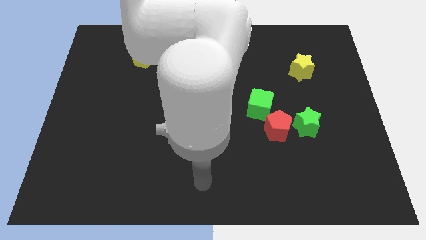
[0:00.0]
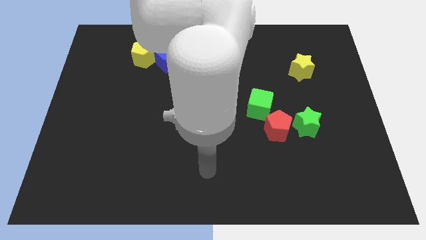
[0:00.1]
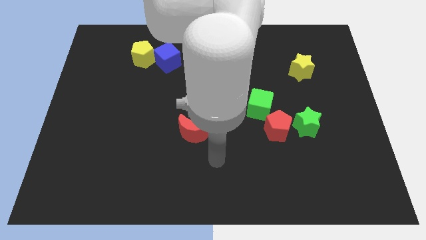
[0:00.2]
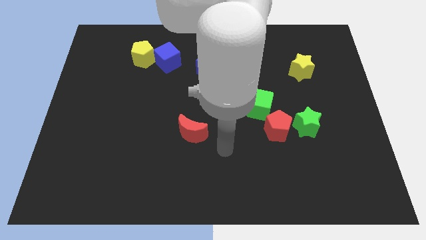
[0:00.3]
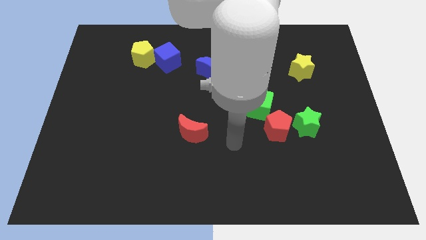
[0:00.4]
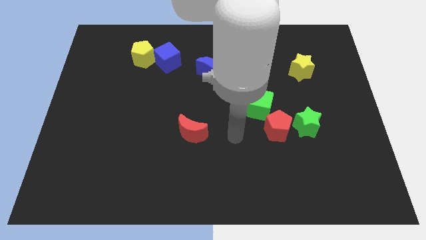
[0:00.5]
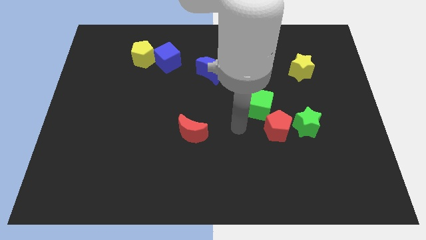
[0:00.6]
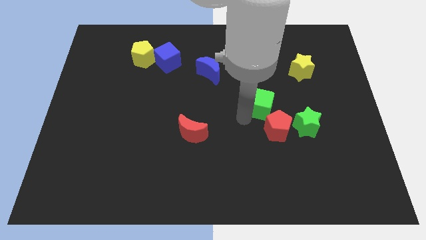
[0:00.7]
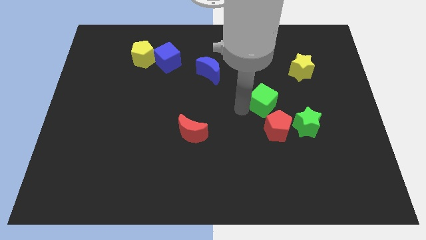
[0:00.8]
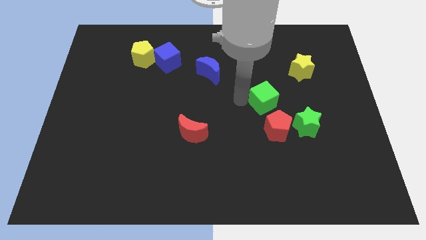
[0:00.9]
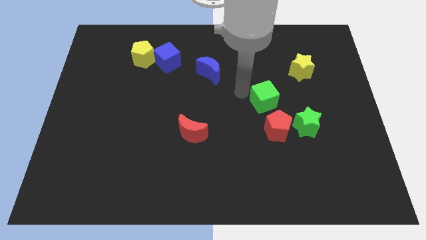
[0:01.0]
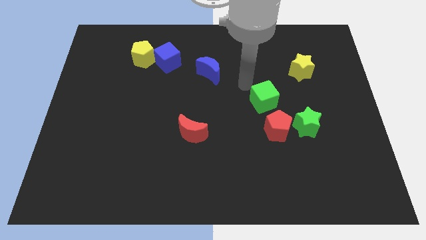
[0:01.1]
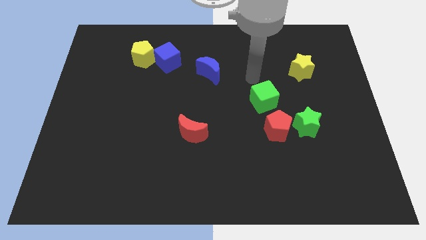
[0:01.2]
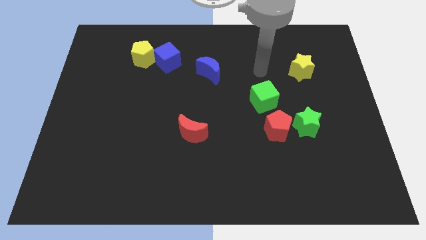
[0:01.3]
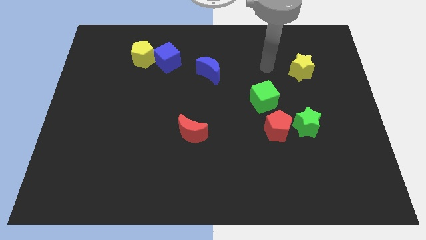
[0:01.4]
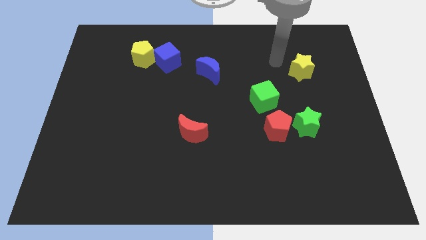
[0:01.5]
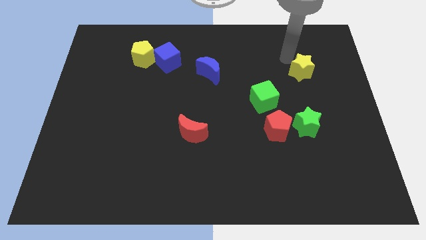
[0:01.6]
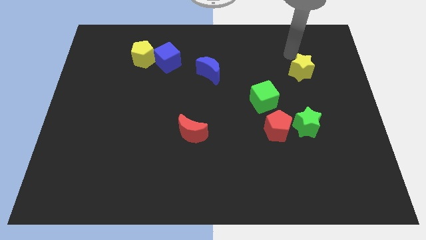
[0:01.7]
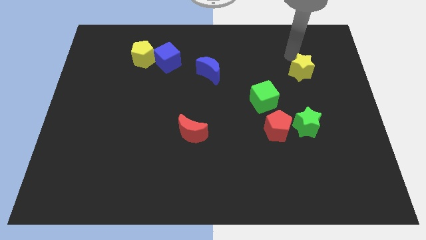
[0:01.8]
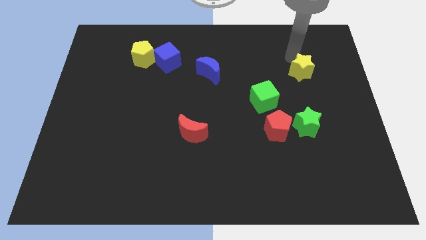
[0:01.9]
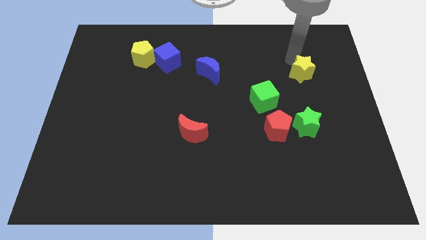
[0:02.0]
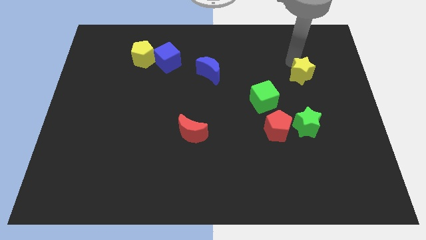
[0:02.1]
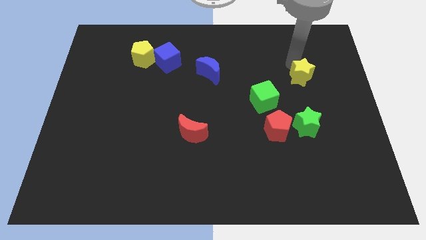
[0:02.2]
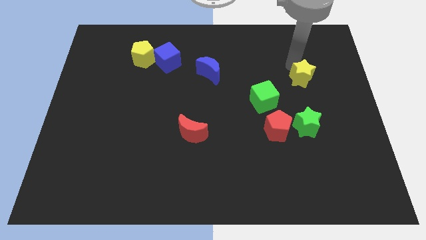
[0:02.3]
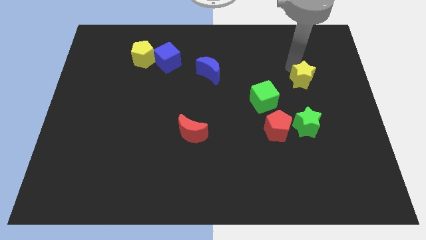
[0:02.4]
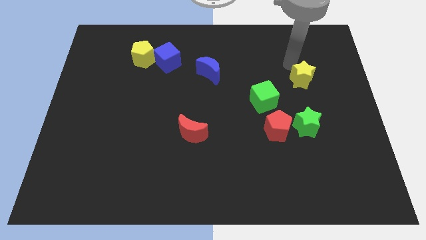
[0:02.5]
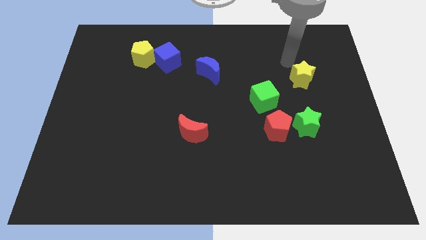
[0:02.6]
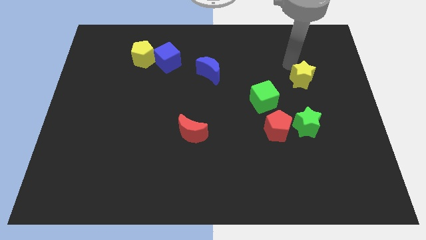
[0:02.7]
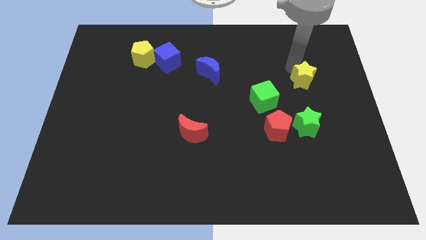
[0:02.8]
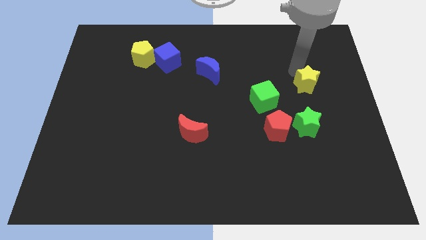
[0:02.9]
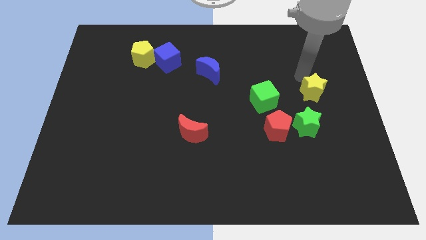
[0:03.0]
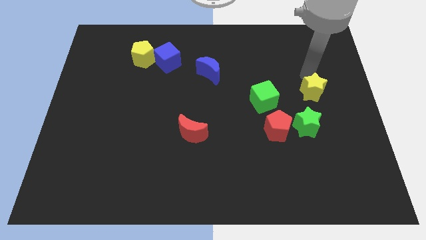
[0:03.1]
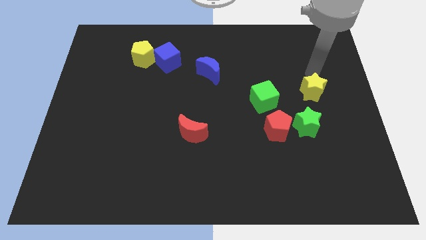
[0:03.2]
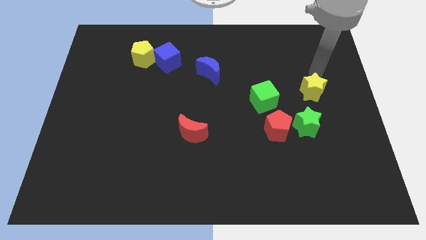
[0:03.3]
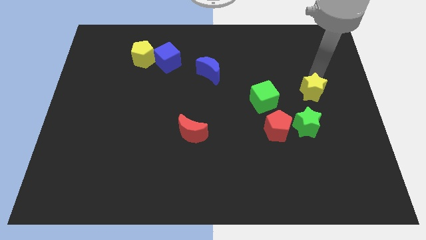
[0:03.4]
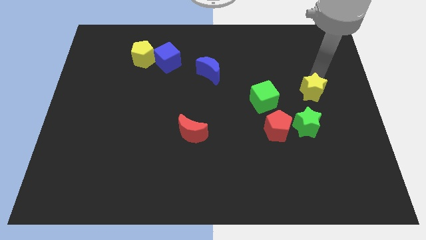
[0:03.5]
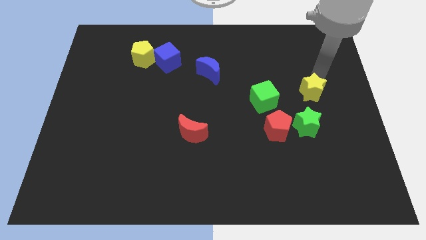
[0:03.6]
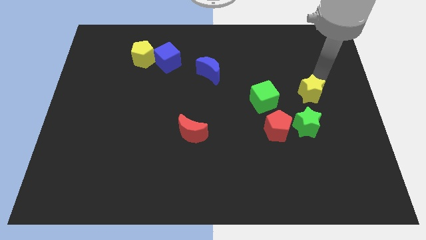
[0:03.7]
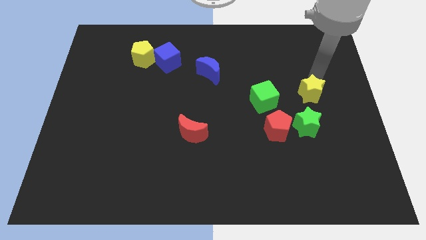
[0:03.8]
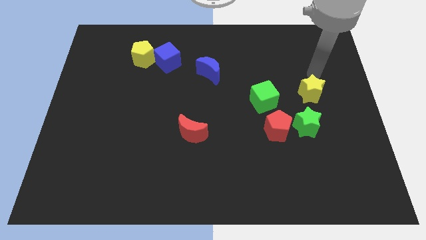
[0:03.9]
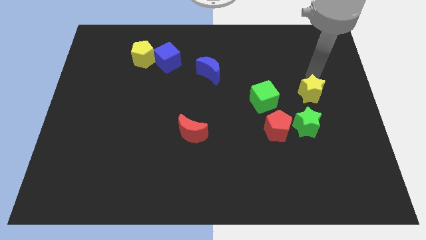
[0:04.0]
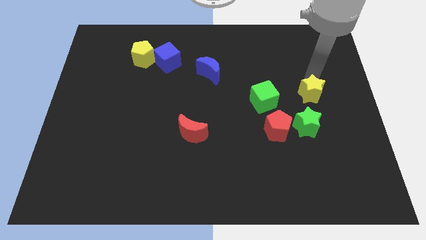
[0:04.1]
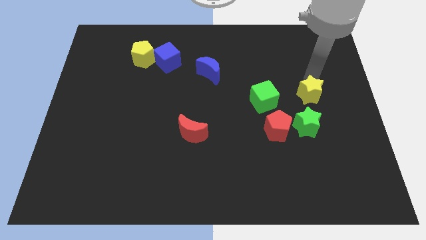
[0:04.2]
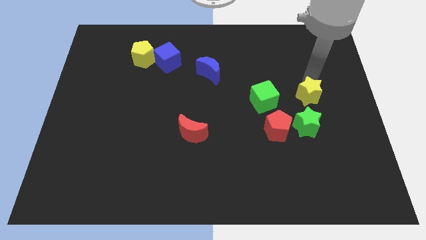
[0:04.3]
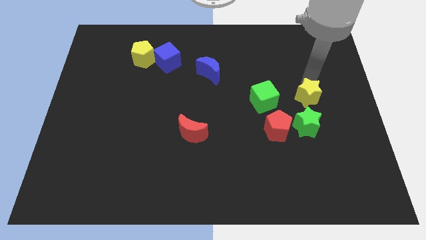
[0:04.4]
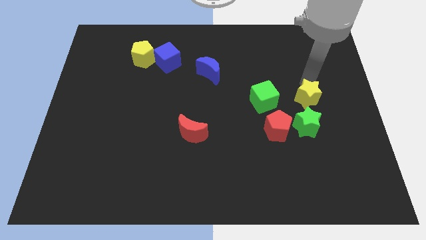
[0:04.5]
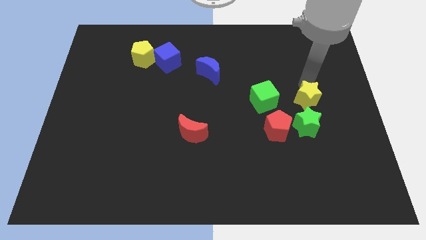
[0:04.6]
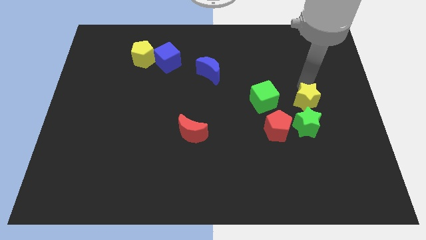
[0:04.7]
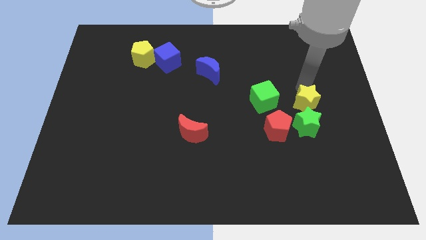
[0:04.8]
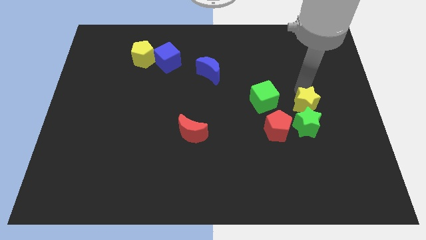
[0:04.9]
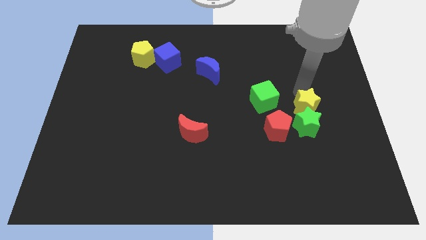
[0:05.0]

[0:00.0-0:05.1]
push the yellow star next to the green star

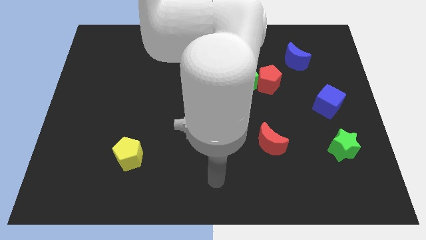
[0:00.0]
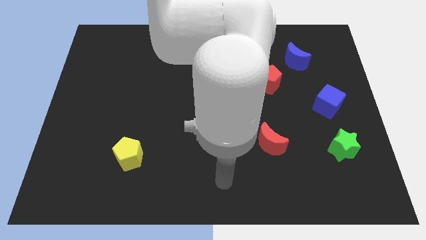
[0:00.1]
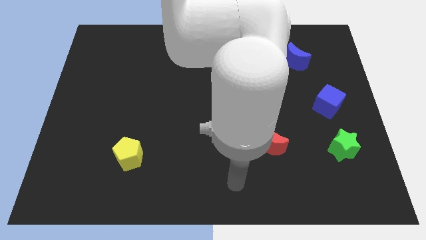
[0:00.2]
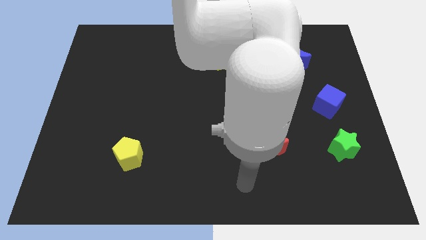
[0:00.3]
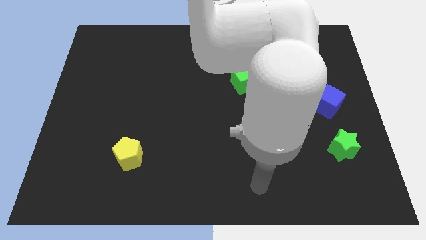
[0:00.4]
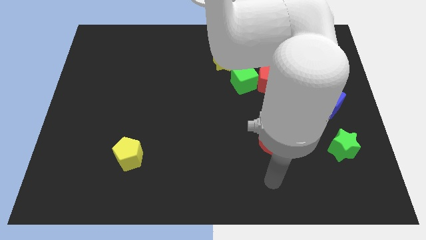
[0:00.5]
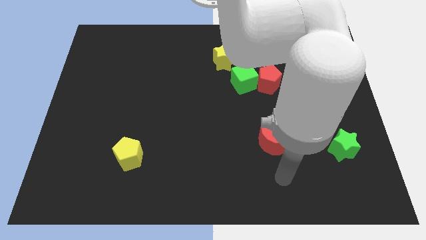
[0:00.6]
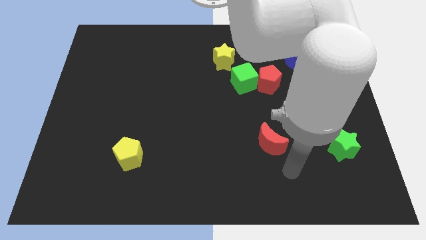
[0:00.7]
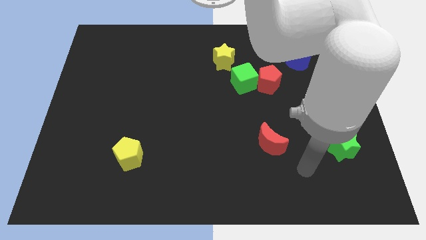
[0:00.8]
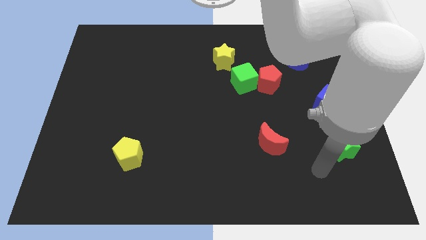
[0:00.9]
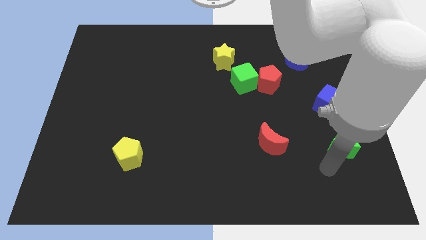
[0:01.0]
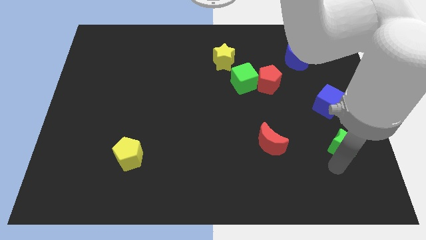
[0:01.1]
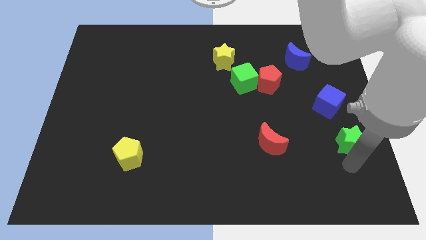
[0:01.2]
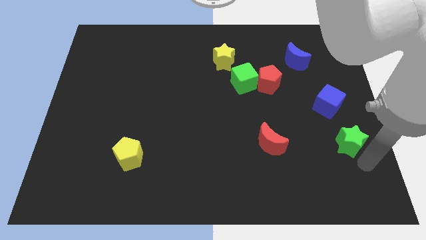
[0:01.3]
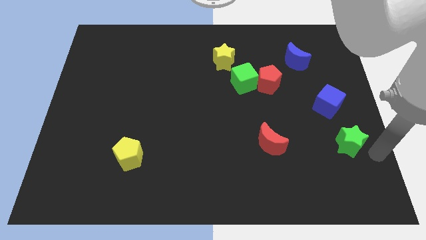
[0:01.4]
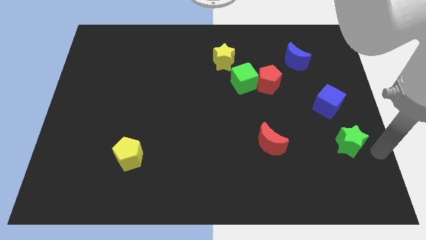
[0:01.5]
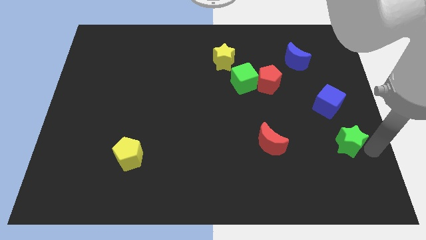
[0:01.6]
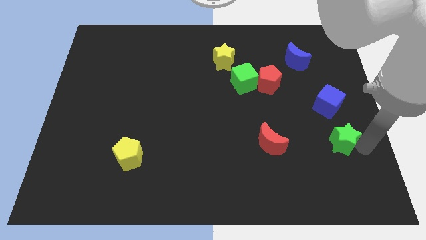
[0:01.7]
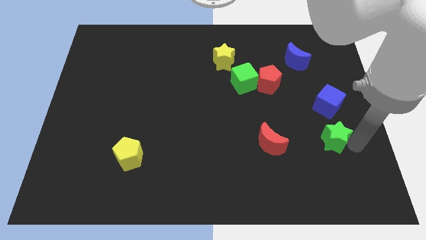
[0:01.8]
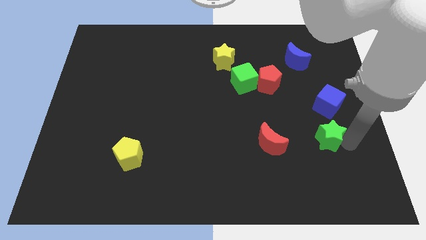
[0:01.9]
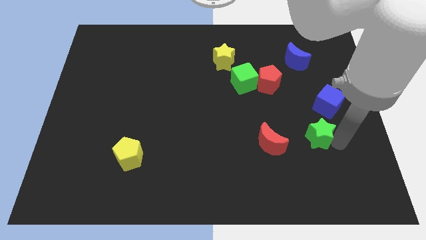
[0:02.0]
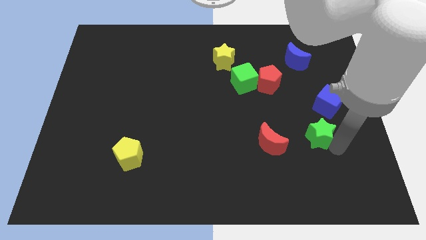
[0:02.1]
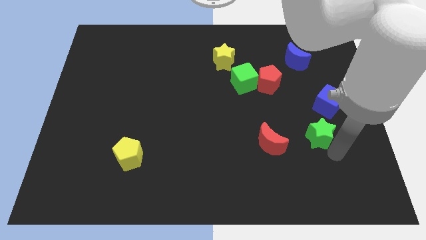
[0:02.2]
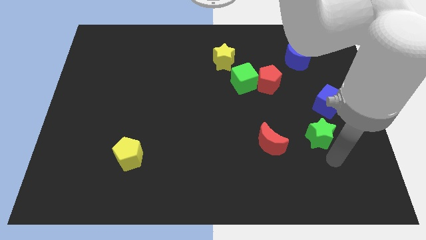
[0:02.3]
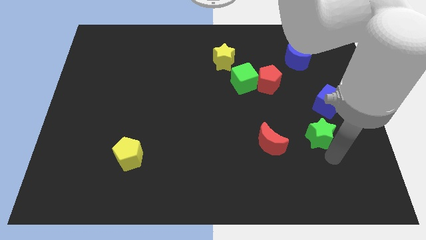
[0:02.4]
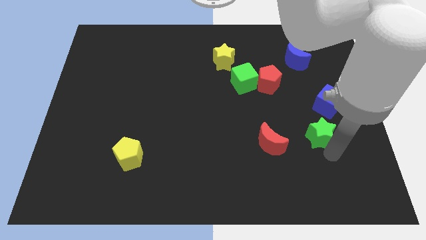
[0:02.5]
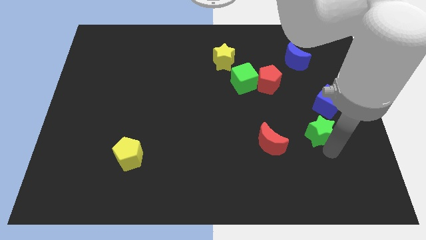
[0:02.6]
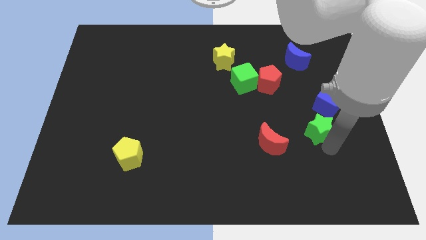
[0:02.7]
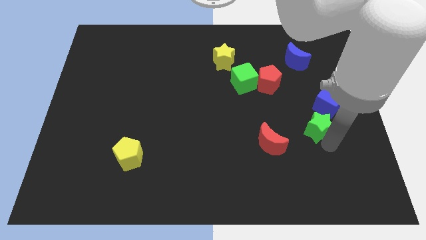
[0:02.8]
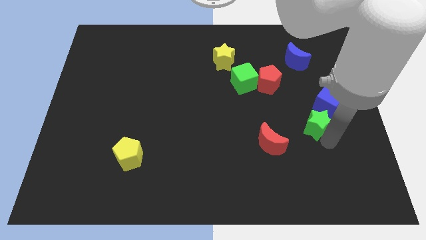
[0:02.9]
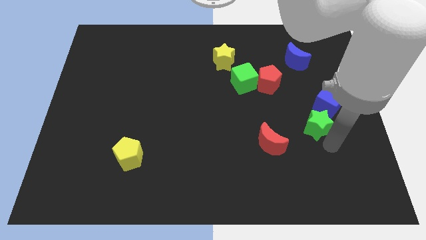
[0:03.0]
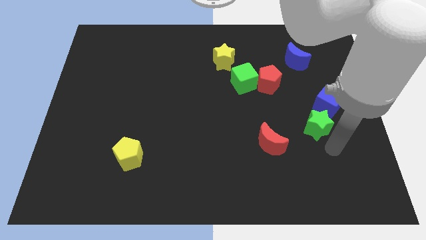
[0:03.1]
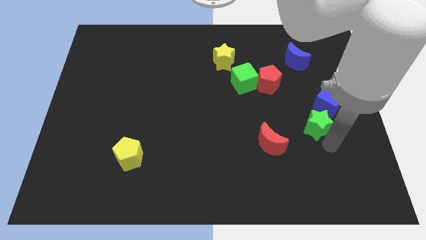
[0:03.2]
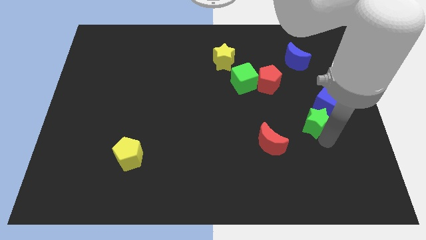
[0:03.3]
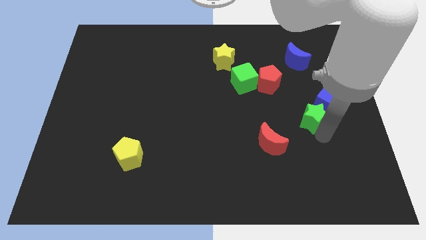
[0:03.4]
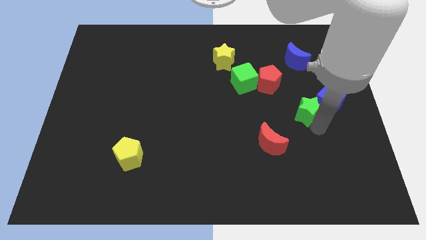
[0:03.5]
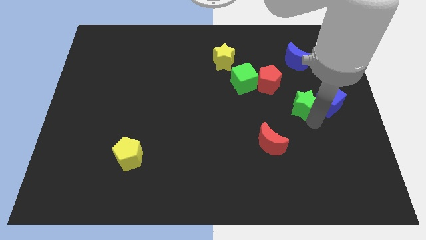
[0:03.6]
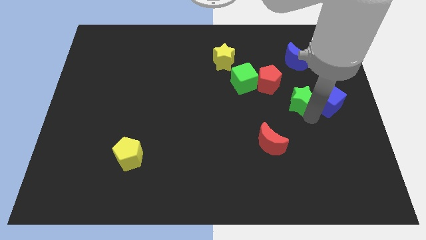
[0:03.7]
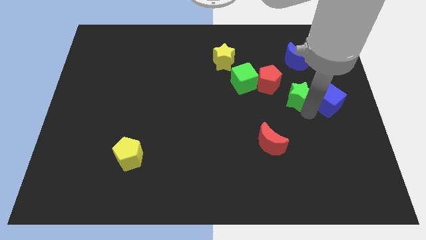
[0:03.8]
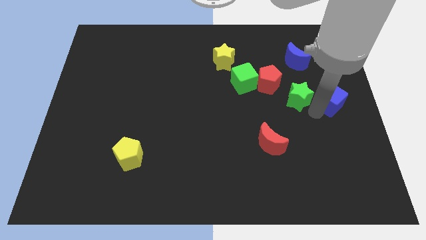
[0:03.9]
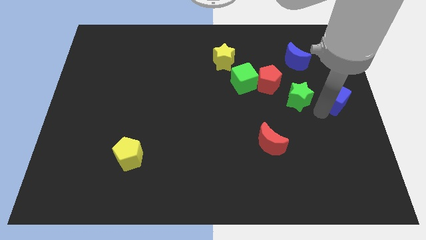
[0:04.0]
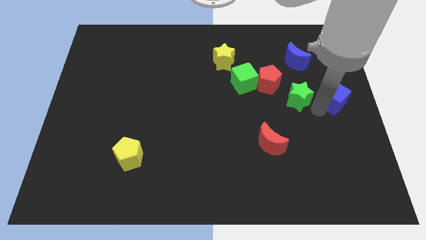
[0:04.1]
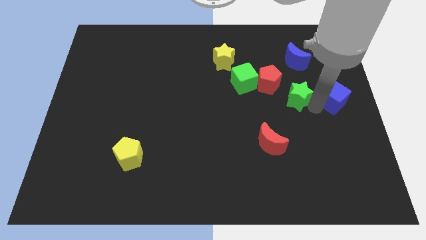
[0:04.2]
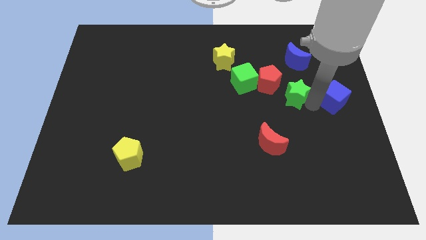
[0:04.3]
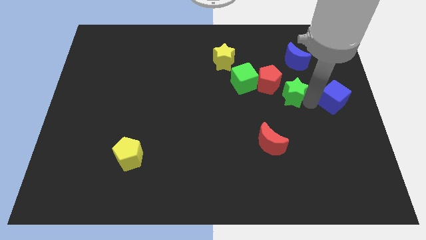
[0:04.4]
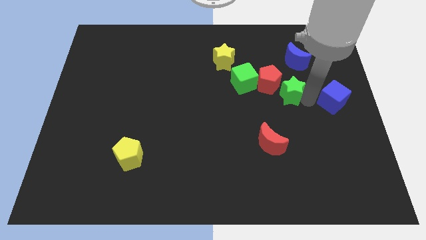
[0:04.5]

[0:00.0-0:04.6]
move the green star close to the red pentagon
